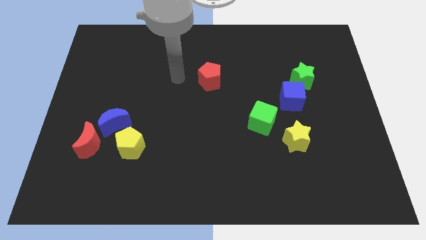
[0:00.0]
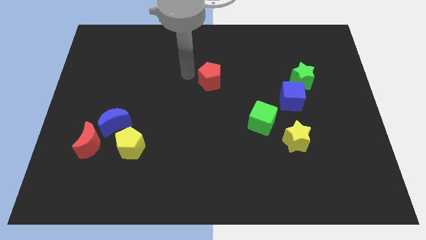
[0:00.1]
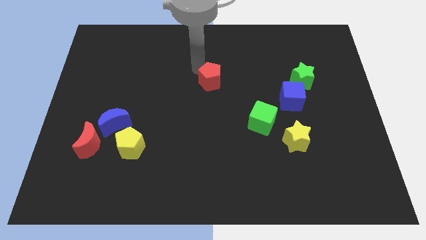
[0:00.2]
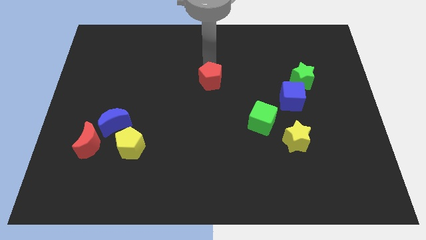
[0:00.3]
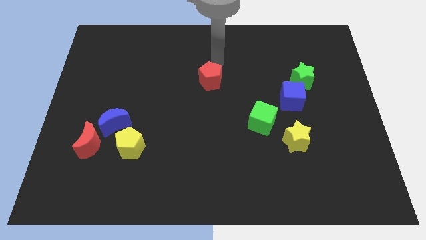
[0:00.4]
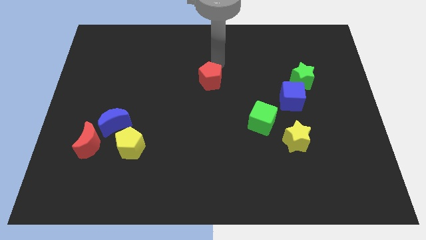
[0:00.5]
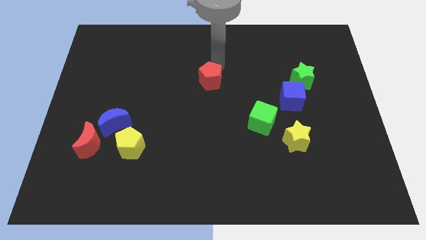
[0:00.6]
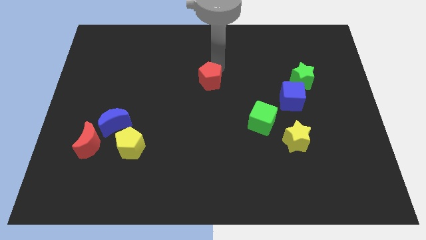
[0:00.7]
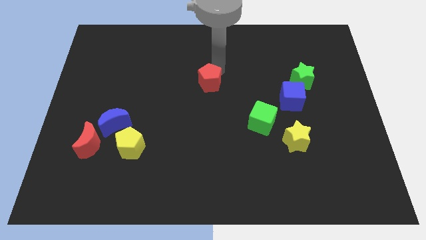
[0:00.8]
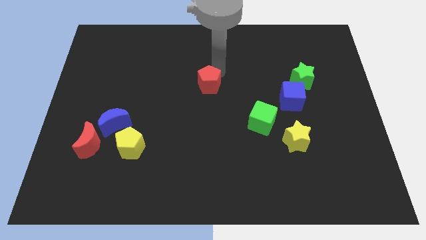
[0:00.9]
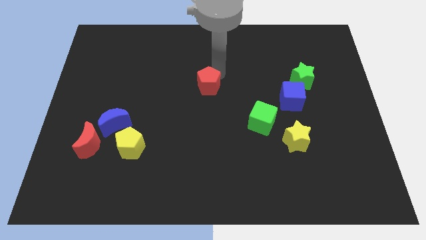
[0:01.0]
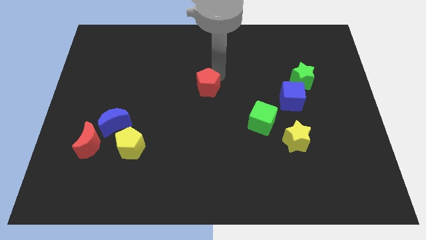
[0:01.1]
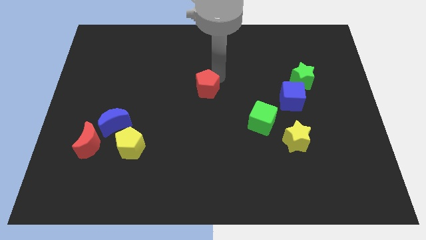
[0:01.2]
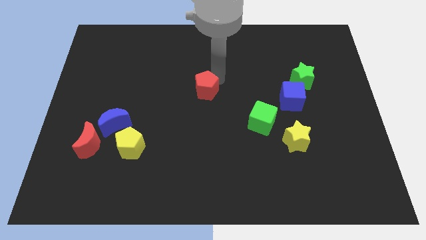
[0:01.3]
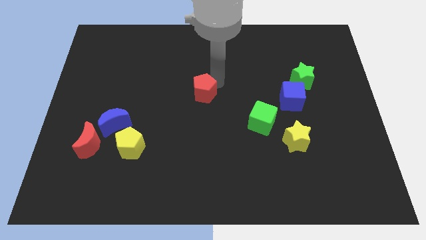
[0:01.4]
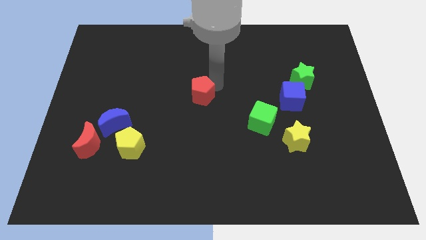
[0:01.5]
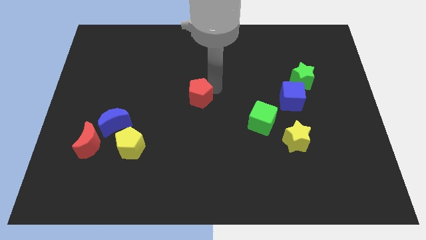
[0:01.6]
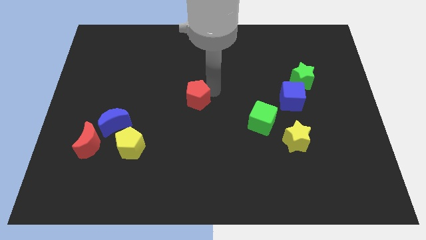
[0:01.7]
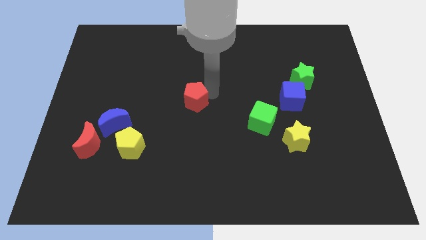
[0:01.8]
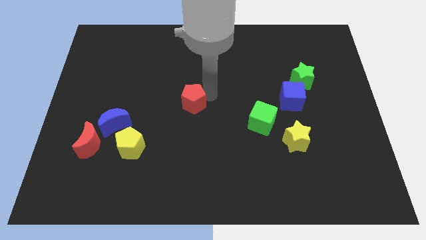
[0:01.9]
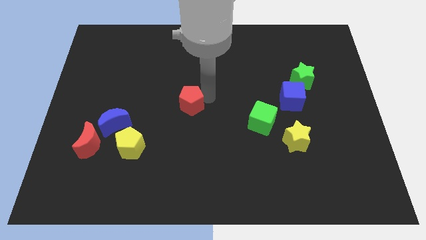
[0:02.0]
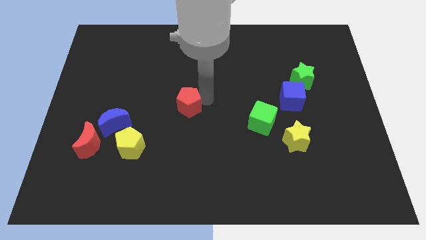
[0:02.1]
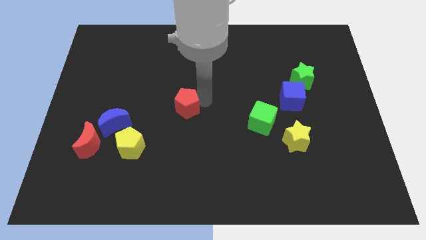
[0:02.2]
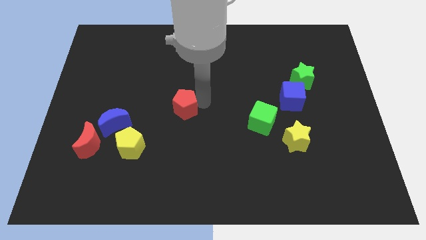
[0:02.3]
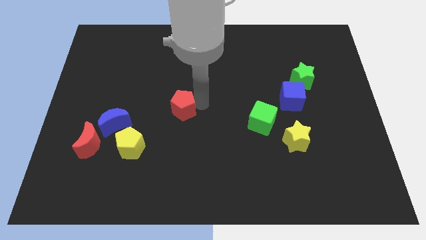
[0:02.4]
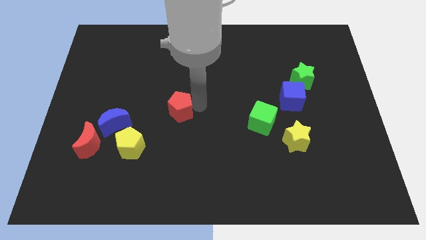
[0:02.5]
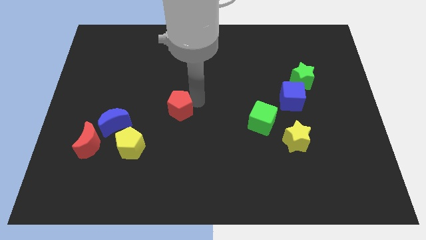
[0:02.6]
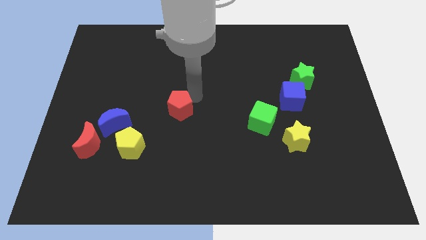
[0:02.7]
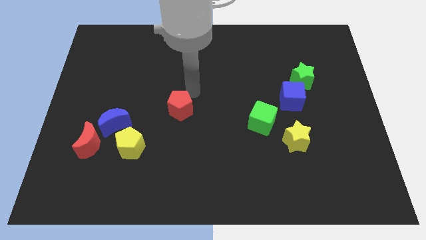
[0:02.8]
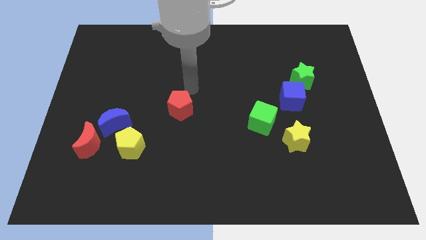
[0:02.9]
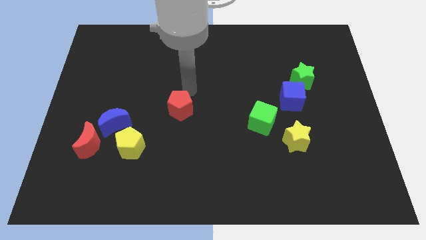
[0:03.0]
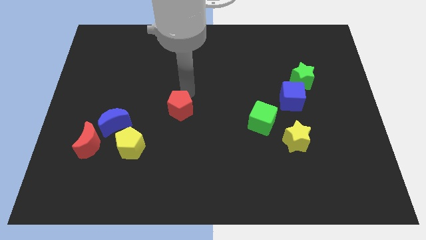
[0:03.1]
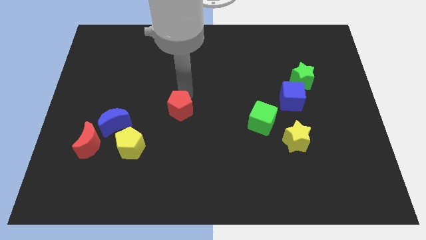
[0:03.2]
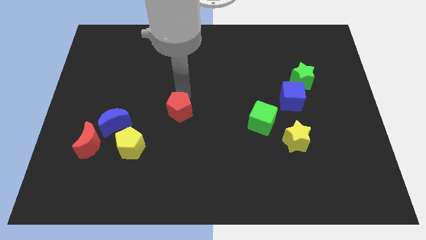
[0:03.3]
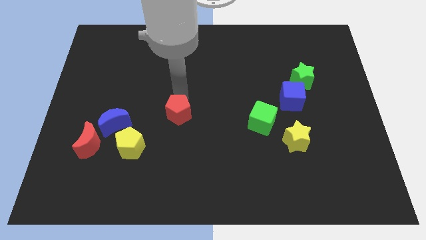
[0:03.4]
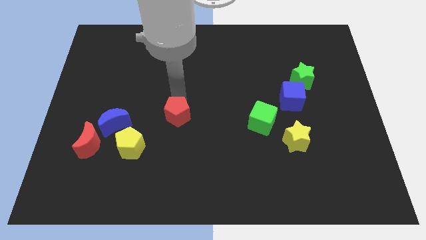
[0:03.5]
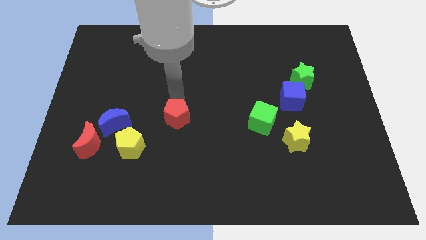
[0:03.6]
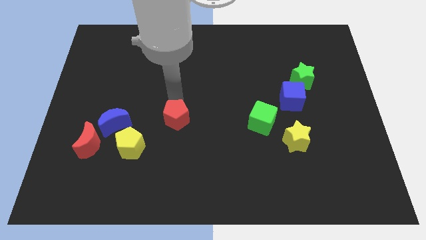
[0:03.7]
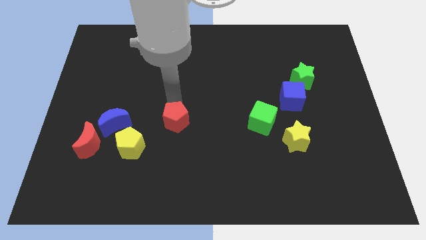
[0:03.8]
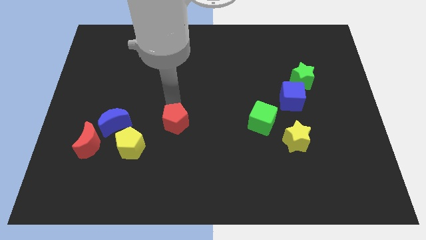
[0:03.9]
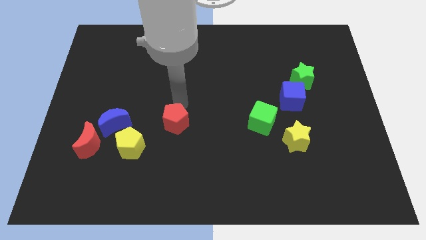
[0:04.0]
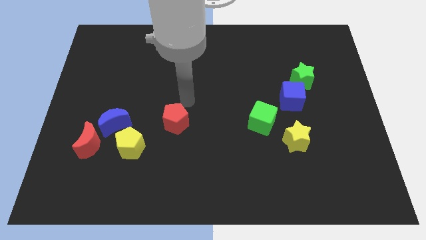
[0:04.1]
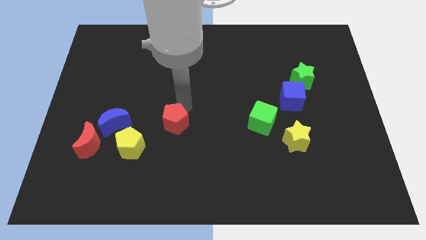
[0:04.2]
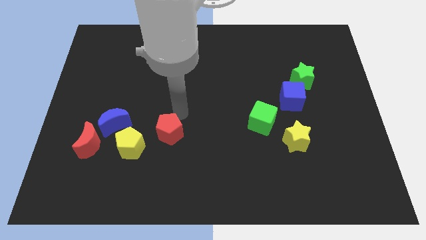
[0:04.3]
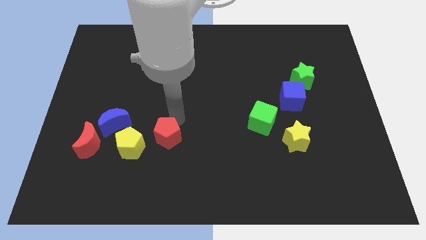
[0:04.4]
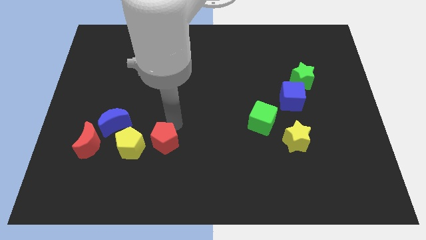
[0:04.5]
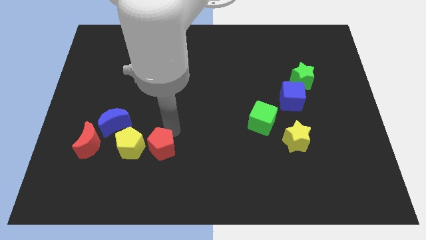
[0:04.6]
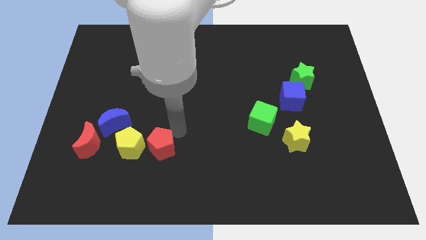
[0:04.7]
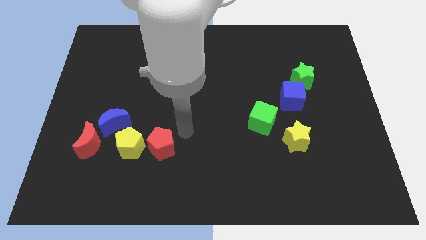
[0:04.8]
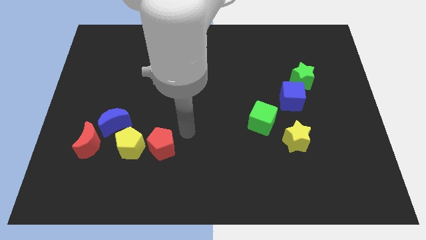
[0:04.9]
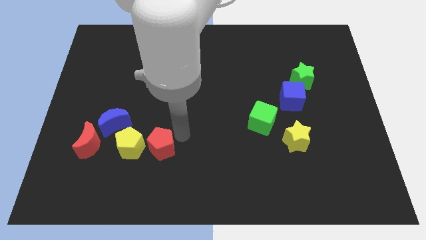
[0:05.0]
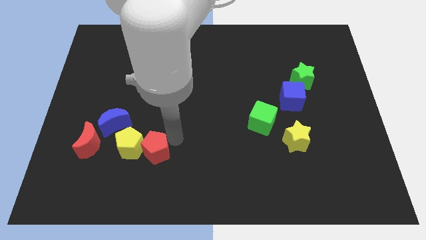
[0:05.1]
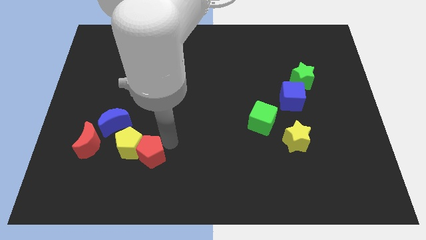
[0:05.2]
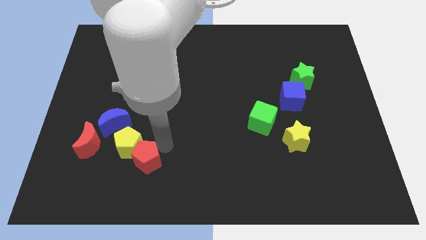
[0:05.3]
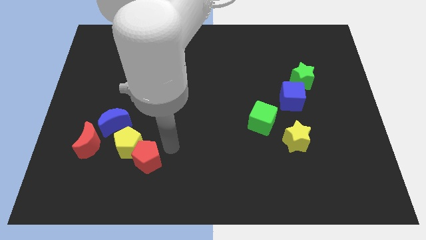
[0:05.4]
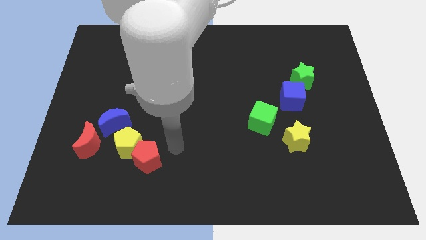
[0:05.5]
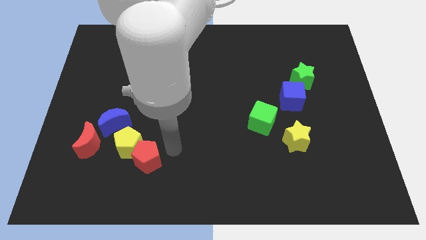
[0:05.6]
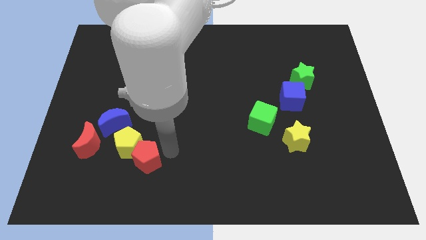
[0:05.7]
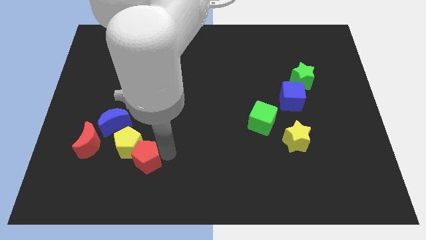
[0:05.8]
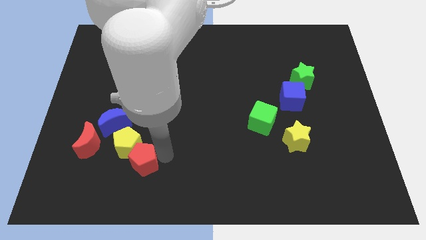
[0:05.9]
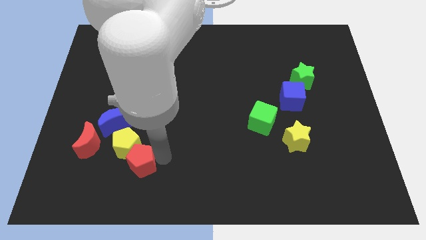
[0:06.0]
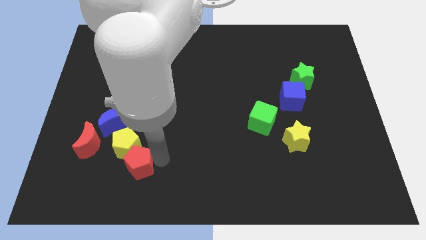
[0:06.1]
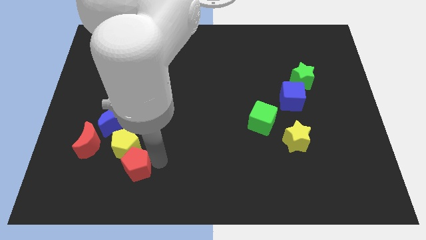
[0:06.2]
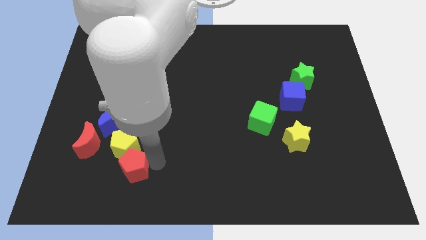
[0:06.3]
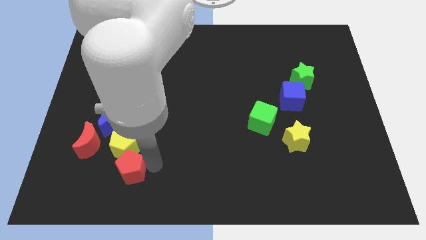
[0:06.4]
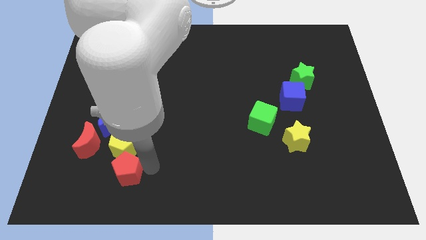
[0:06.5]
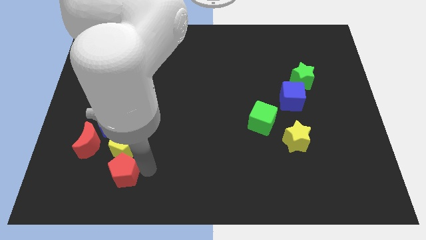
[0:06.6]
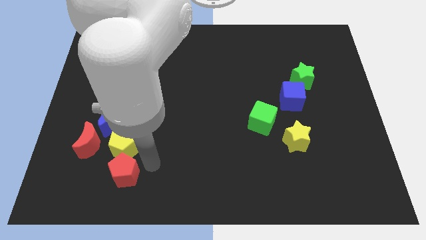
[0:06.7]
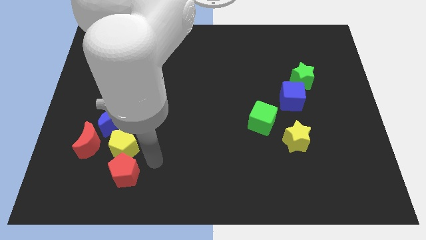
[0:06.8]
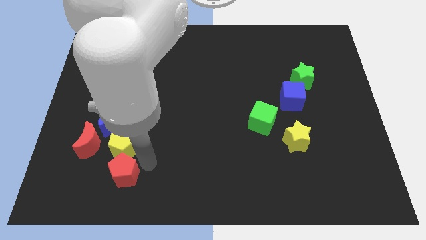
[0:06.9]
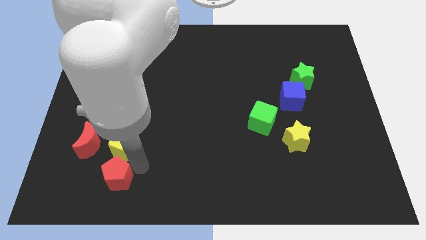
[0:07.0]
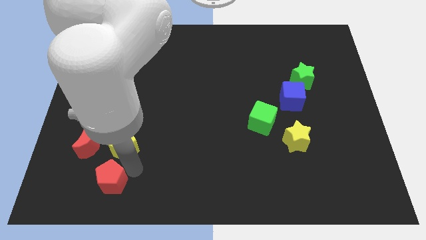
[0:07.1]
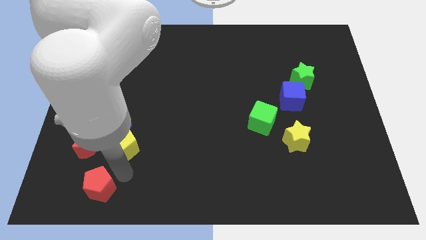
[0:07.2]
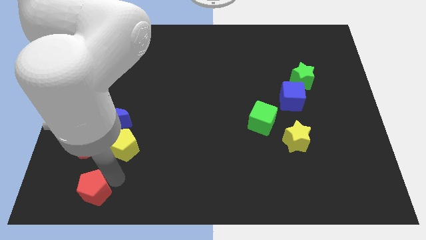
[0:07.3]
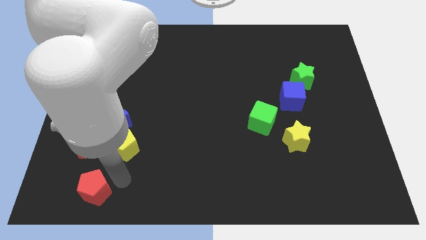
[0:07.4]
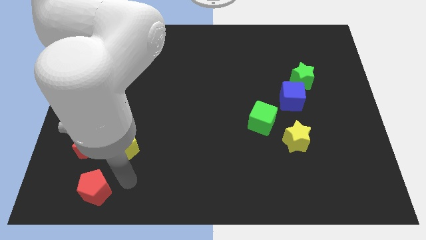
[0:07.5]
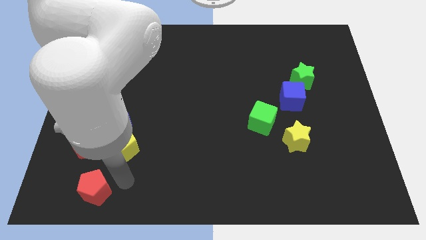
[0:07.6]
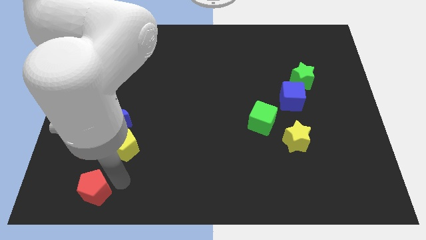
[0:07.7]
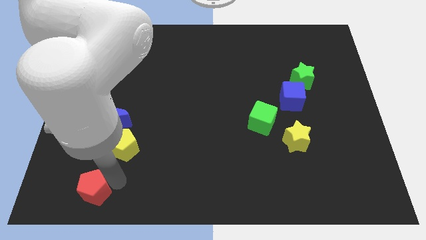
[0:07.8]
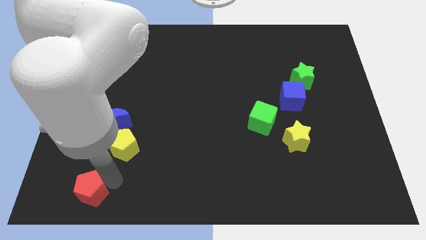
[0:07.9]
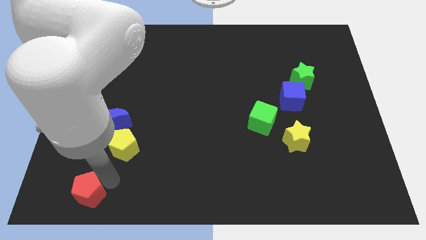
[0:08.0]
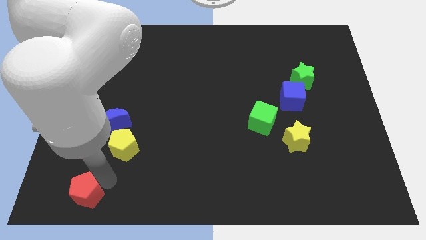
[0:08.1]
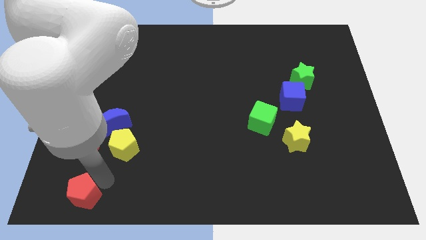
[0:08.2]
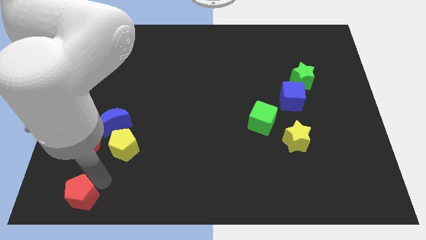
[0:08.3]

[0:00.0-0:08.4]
move the red pentagon to the bottom left
